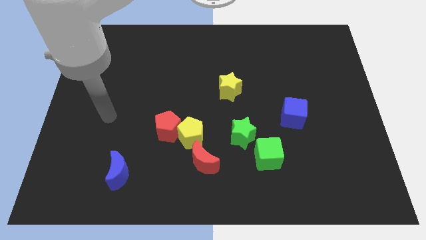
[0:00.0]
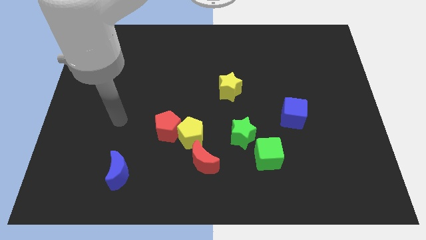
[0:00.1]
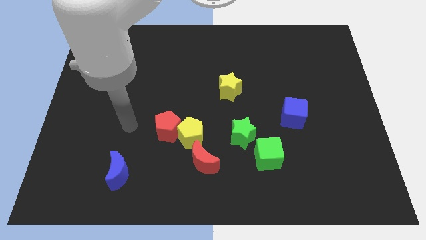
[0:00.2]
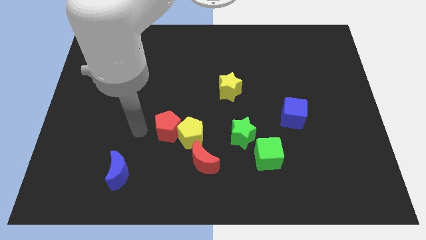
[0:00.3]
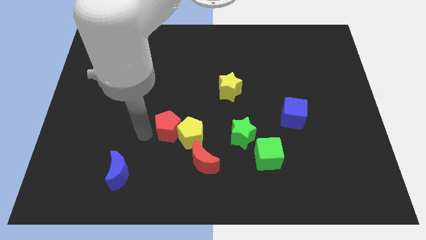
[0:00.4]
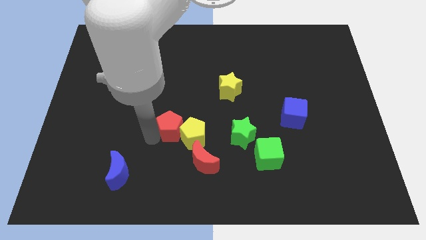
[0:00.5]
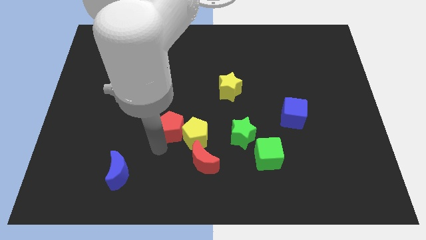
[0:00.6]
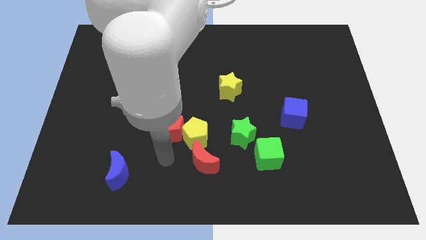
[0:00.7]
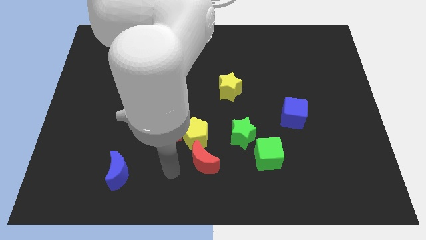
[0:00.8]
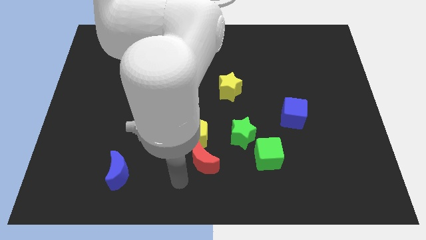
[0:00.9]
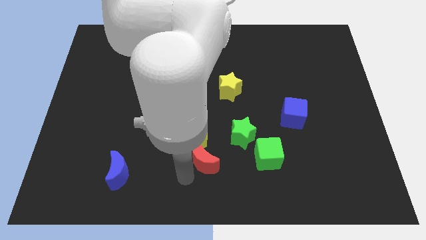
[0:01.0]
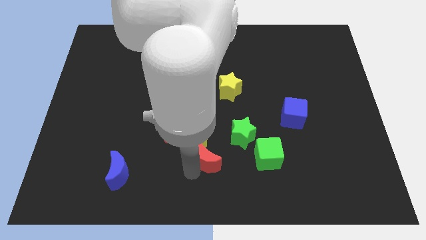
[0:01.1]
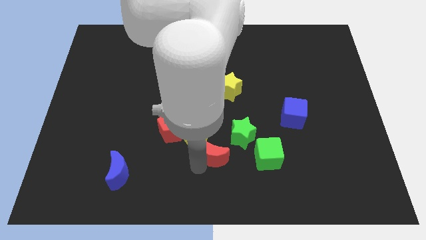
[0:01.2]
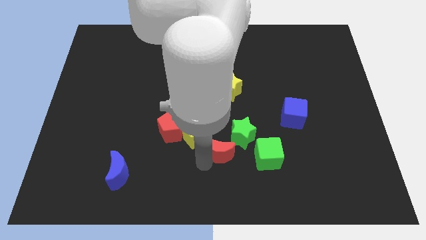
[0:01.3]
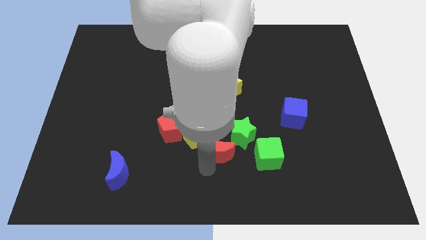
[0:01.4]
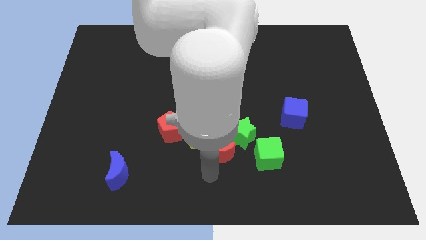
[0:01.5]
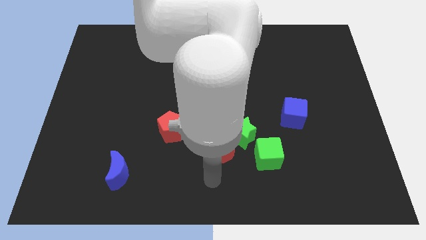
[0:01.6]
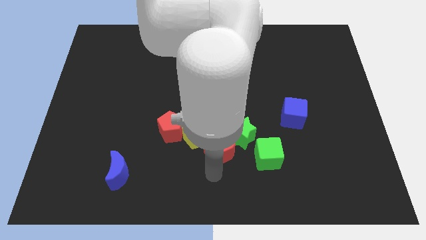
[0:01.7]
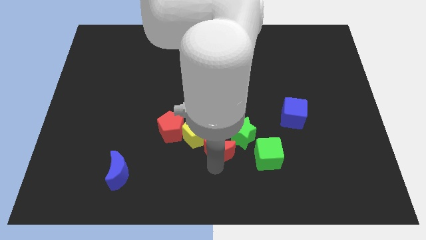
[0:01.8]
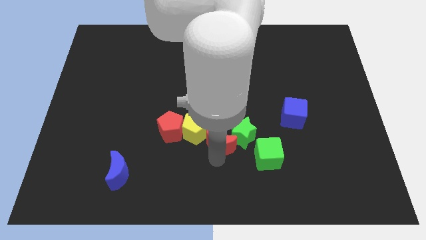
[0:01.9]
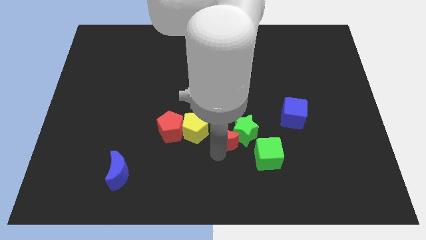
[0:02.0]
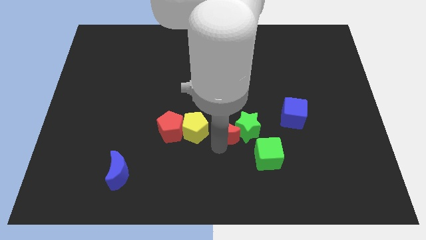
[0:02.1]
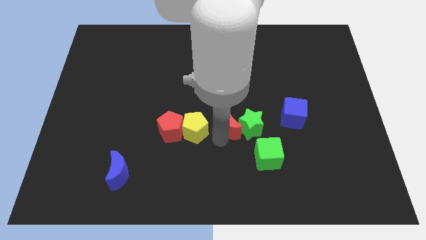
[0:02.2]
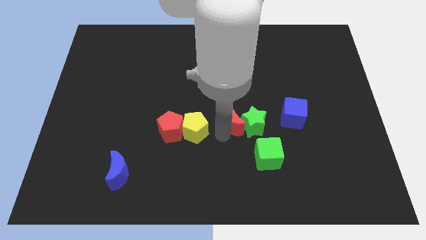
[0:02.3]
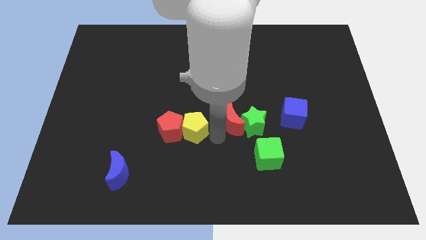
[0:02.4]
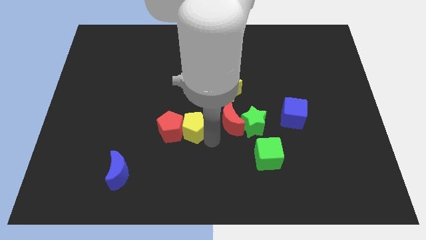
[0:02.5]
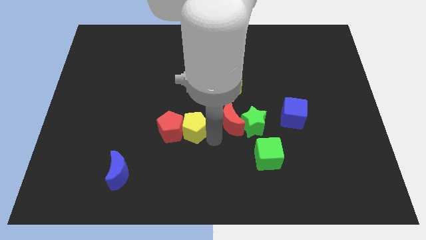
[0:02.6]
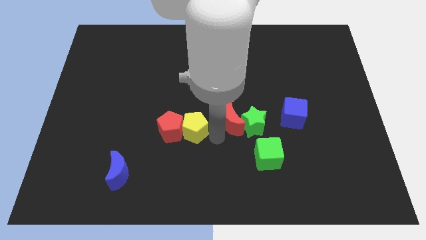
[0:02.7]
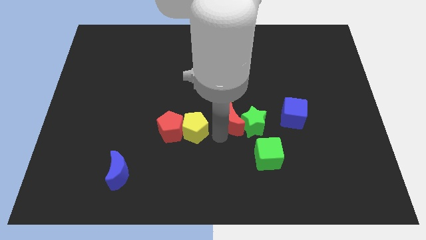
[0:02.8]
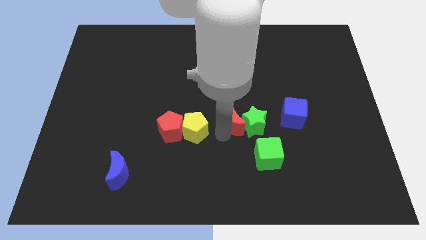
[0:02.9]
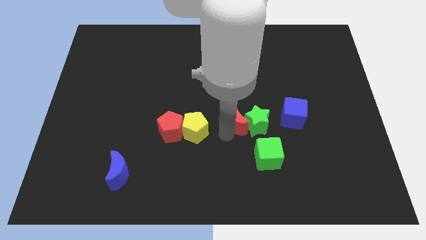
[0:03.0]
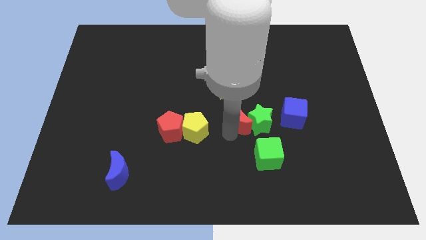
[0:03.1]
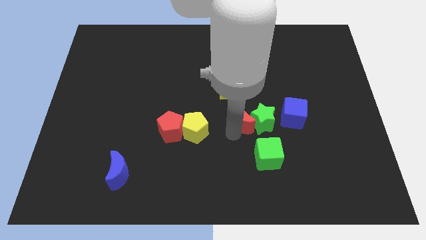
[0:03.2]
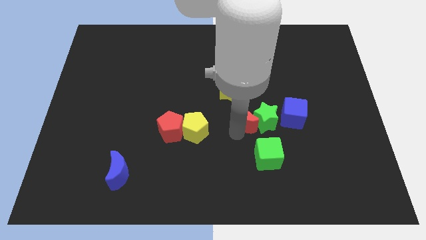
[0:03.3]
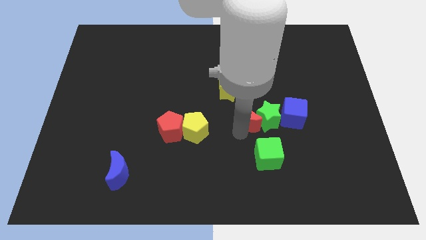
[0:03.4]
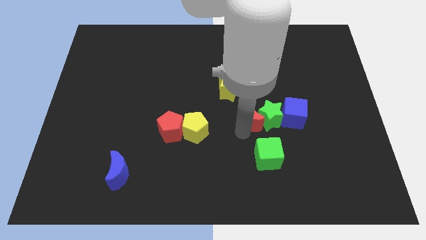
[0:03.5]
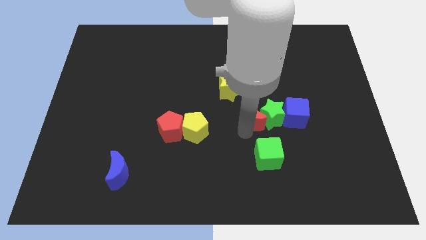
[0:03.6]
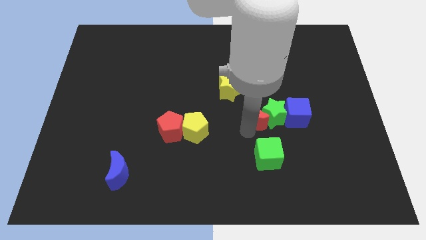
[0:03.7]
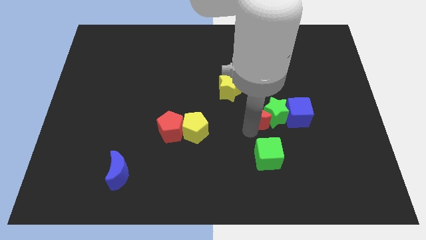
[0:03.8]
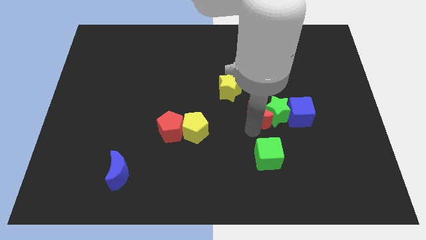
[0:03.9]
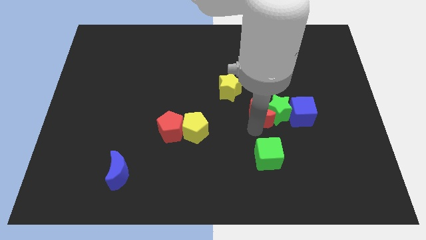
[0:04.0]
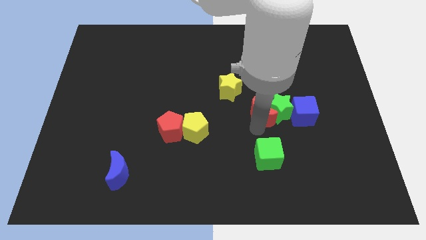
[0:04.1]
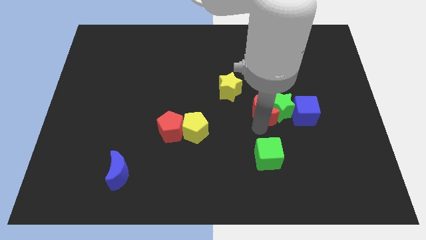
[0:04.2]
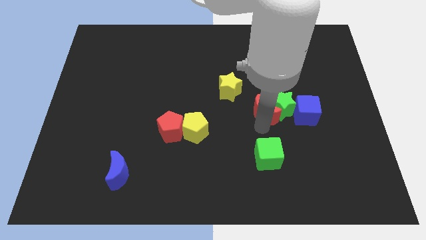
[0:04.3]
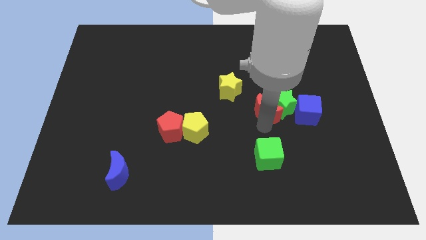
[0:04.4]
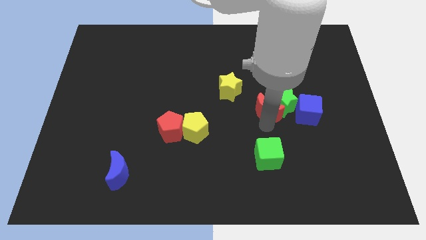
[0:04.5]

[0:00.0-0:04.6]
slide the red moon upwards and to the right diagonally

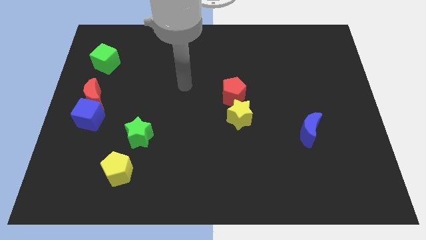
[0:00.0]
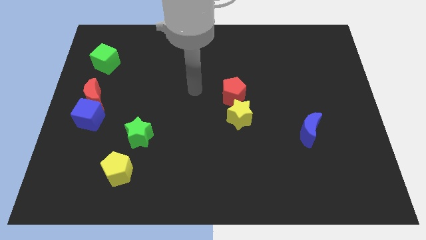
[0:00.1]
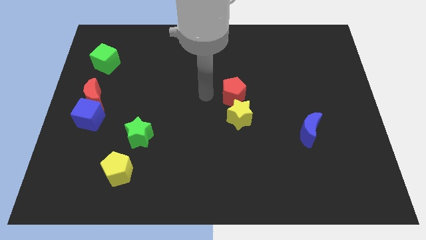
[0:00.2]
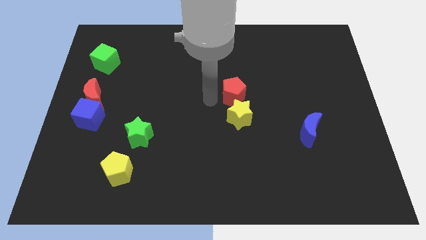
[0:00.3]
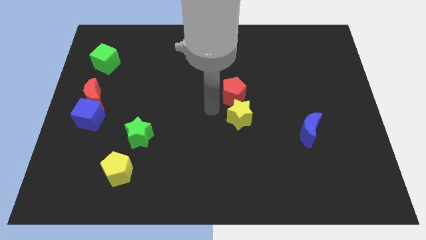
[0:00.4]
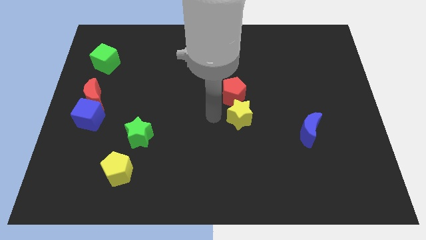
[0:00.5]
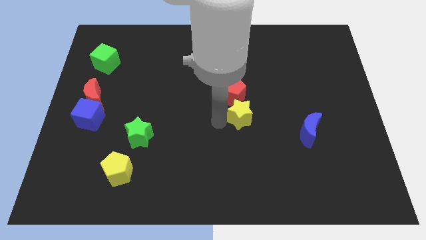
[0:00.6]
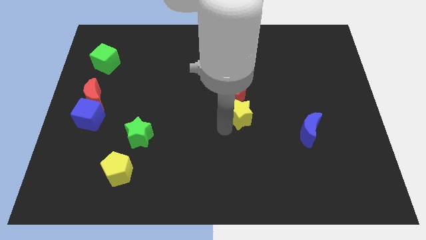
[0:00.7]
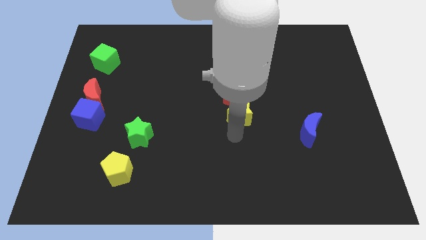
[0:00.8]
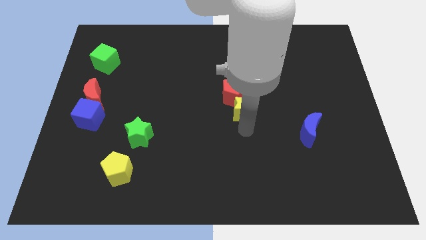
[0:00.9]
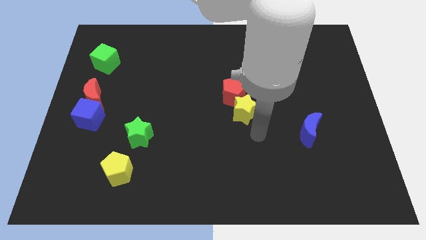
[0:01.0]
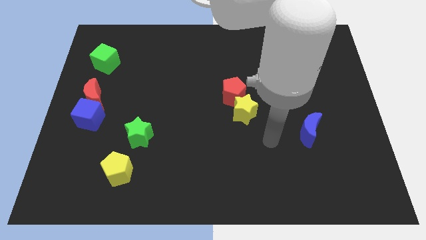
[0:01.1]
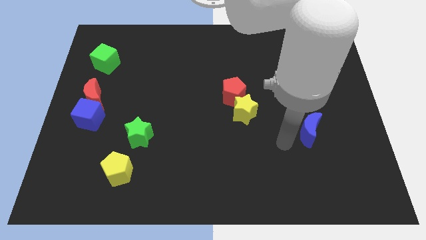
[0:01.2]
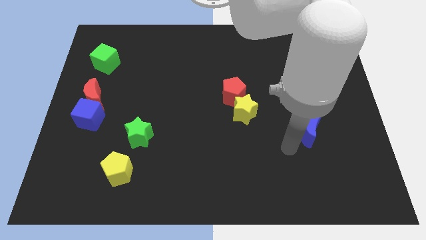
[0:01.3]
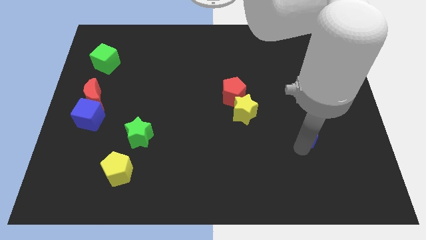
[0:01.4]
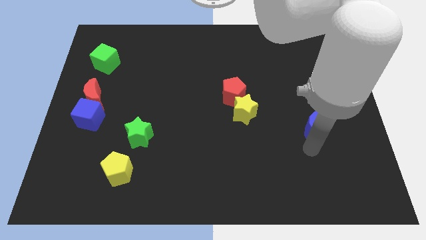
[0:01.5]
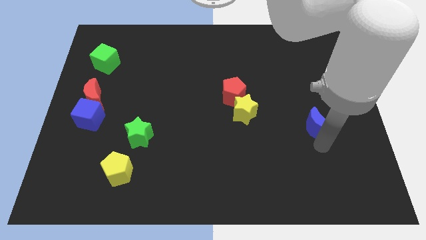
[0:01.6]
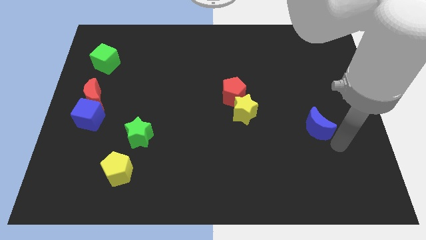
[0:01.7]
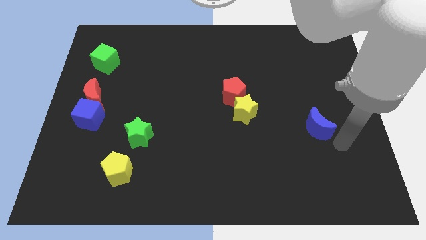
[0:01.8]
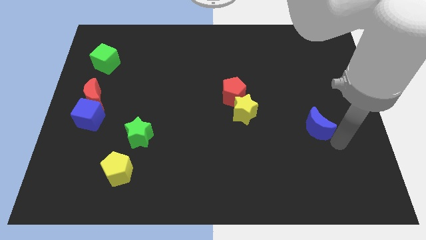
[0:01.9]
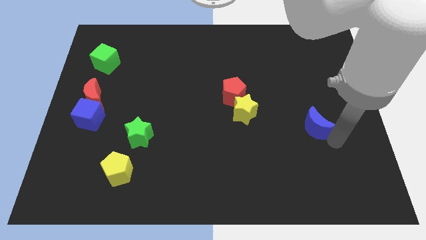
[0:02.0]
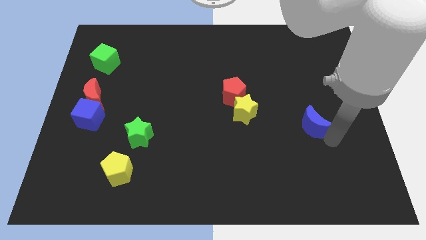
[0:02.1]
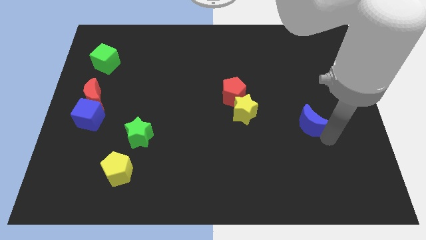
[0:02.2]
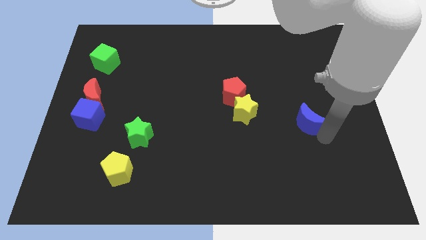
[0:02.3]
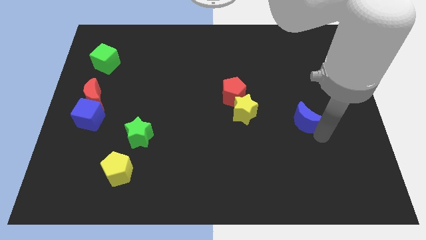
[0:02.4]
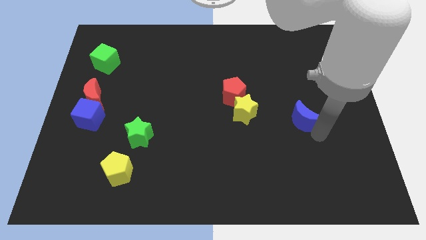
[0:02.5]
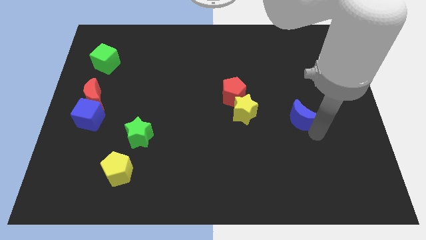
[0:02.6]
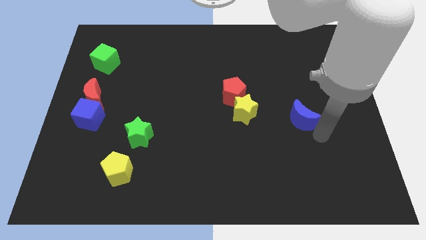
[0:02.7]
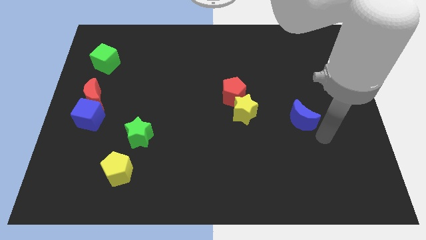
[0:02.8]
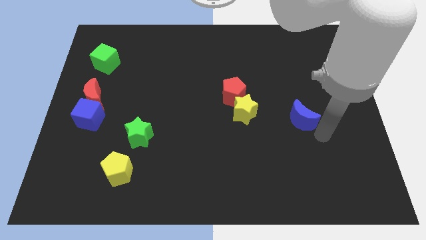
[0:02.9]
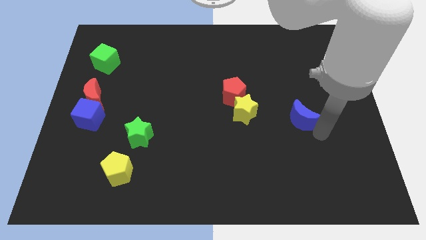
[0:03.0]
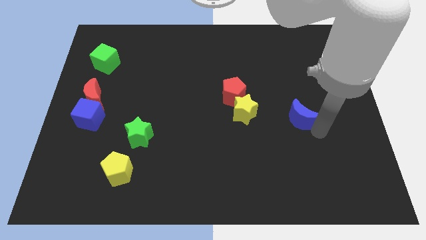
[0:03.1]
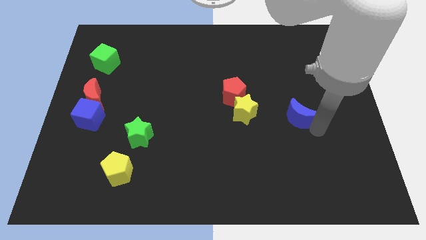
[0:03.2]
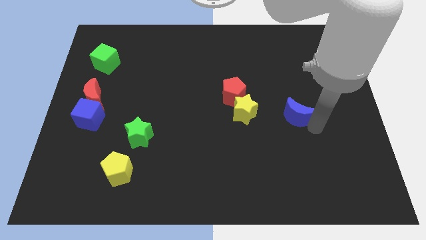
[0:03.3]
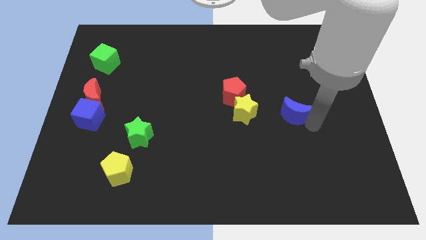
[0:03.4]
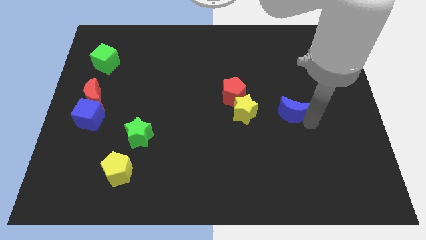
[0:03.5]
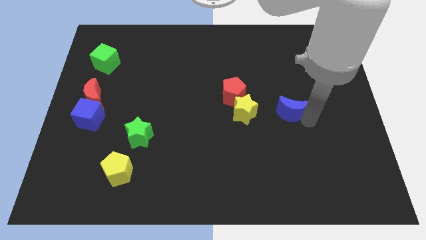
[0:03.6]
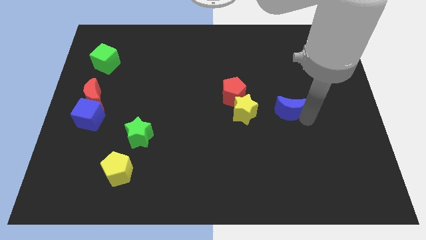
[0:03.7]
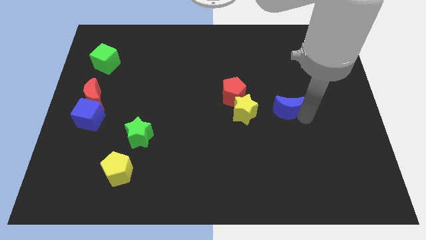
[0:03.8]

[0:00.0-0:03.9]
slide the blue moon slightly diagonally upwards and to the left
